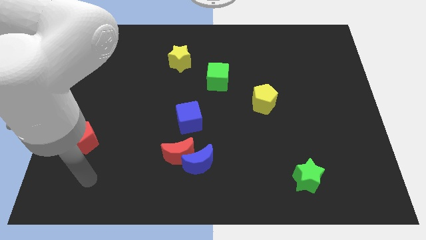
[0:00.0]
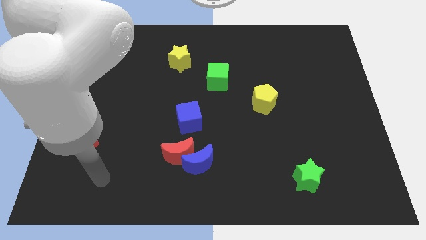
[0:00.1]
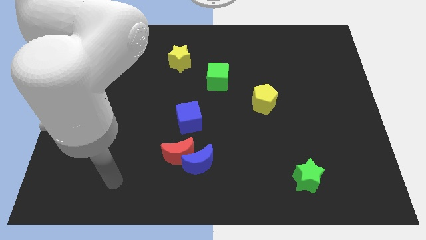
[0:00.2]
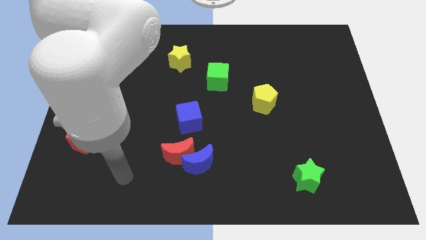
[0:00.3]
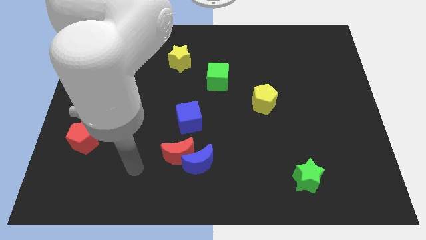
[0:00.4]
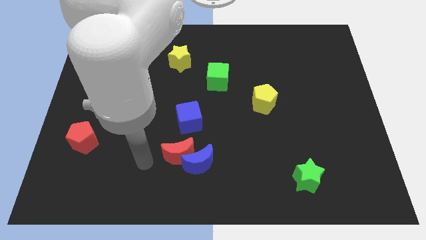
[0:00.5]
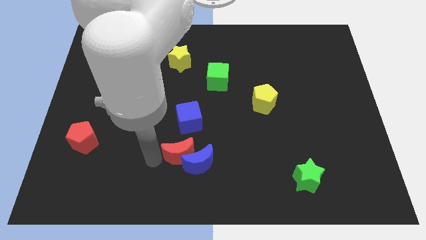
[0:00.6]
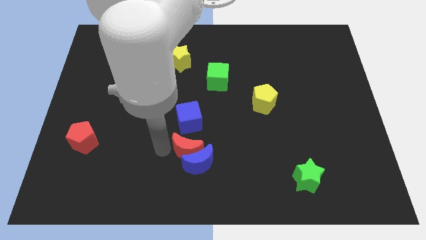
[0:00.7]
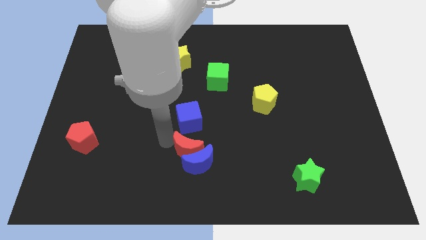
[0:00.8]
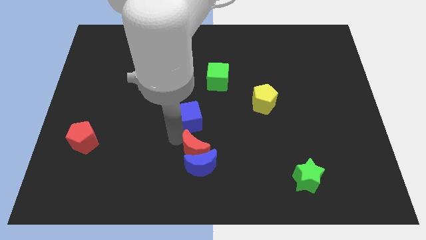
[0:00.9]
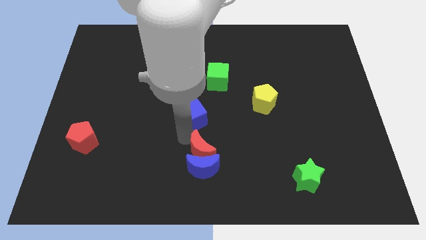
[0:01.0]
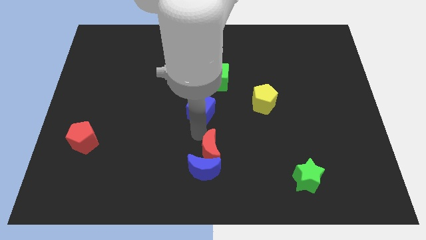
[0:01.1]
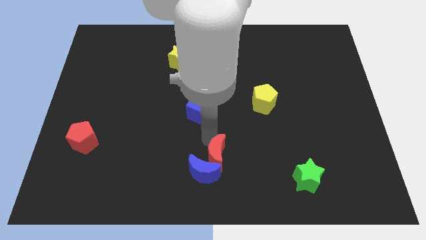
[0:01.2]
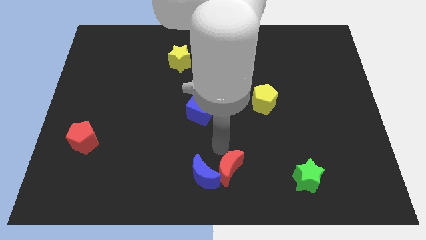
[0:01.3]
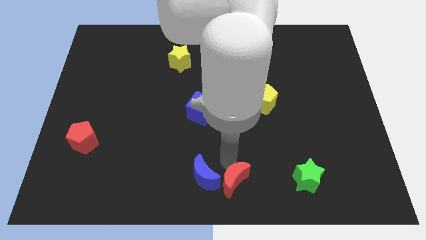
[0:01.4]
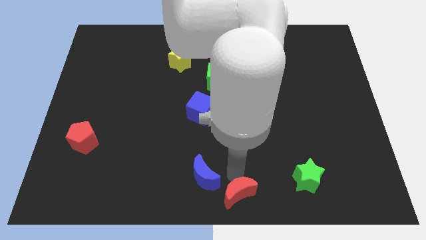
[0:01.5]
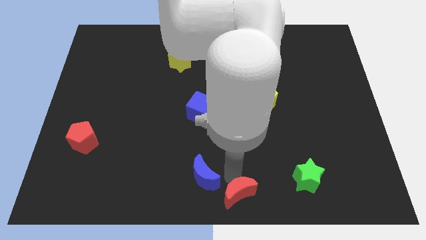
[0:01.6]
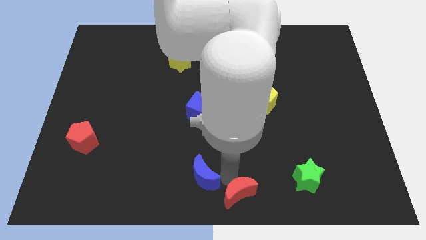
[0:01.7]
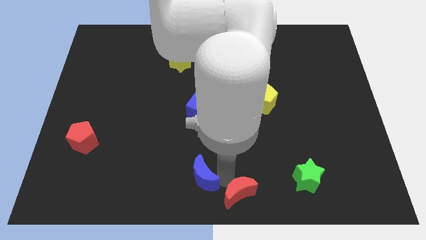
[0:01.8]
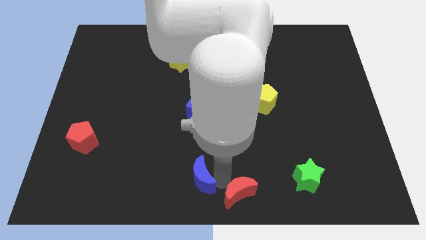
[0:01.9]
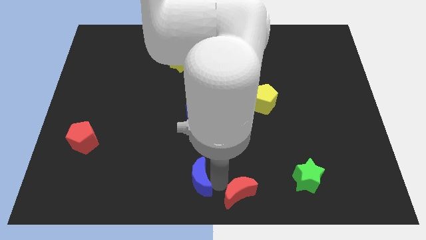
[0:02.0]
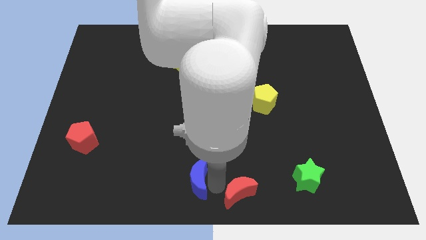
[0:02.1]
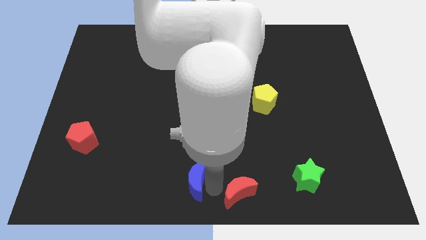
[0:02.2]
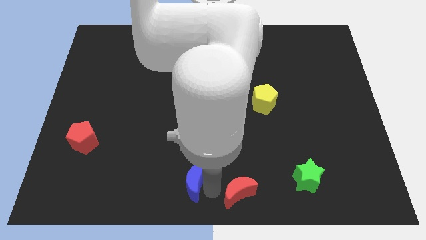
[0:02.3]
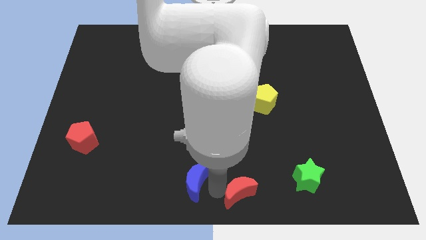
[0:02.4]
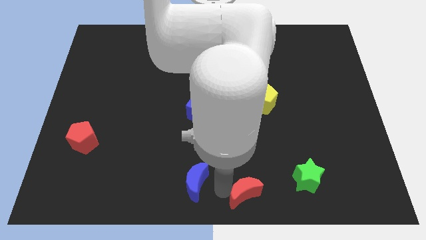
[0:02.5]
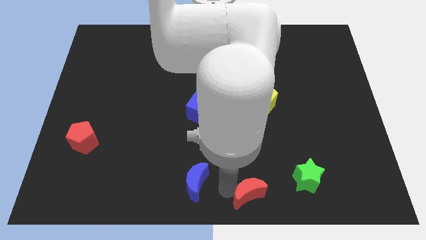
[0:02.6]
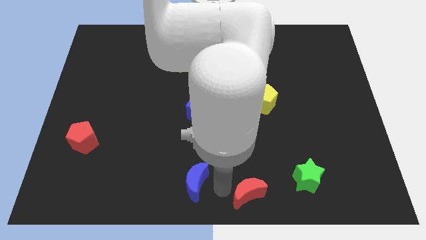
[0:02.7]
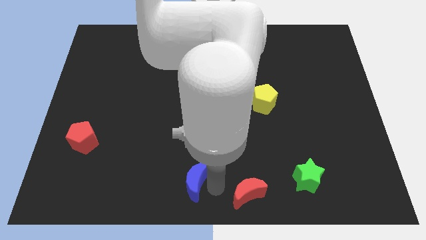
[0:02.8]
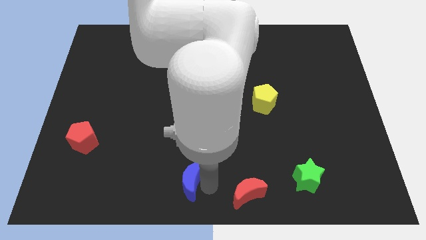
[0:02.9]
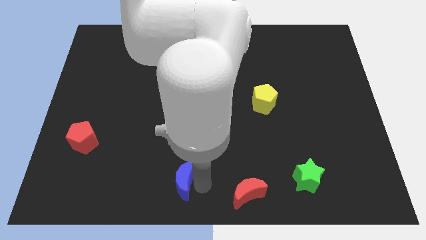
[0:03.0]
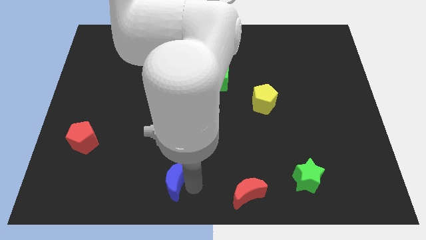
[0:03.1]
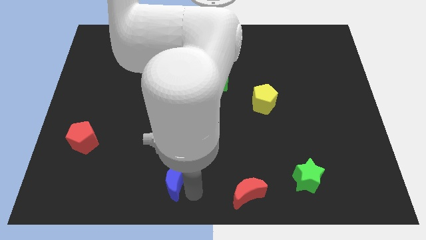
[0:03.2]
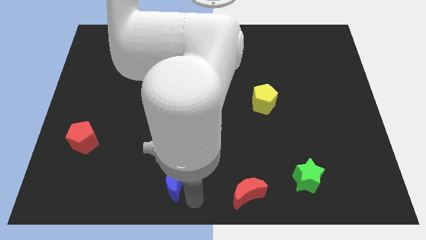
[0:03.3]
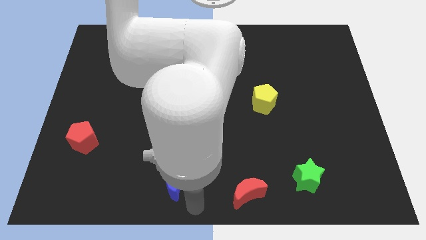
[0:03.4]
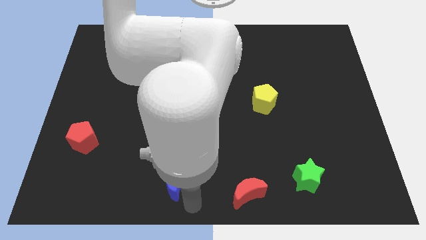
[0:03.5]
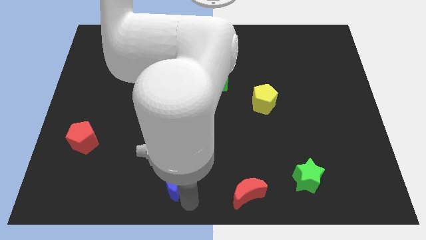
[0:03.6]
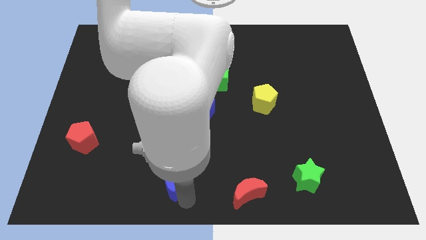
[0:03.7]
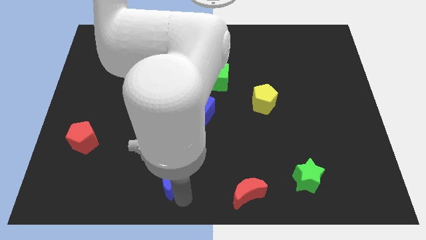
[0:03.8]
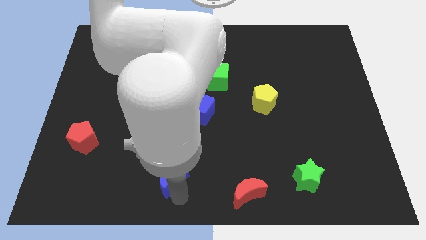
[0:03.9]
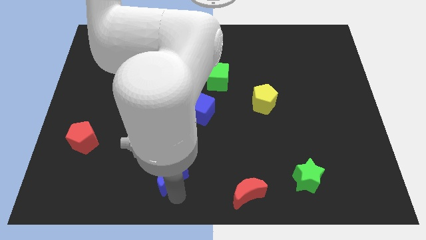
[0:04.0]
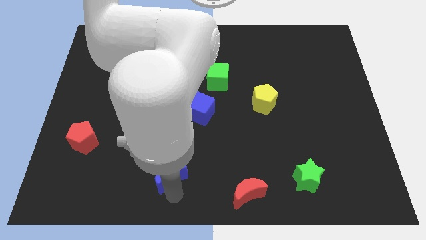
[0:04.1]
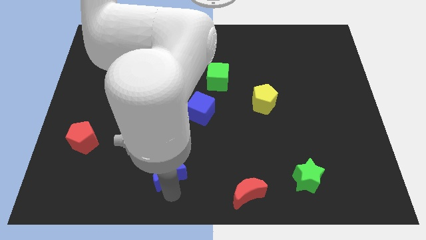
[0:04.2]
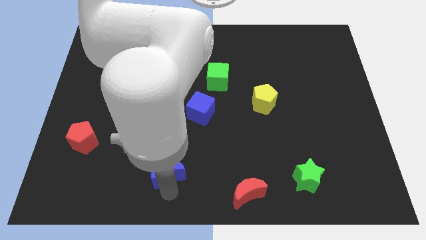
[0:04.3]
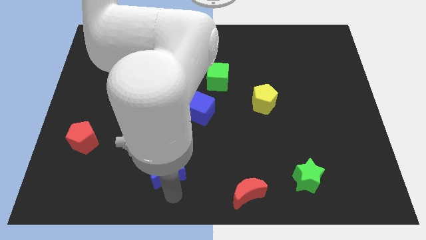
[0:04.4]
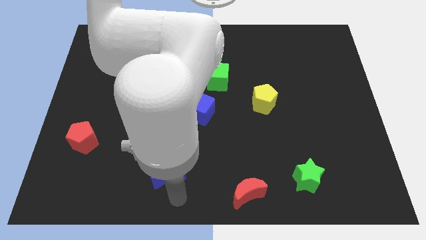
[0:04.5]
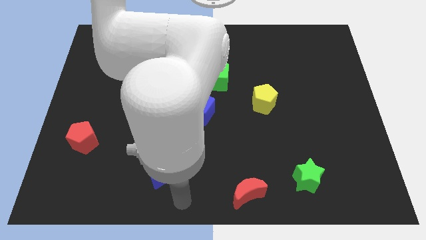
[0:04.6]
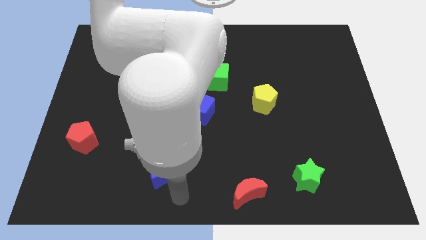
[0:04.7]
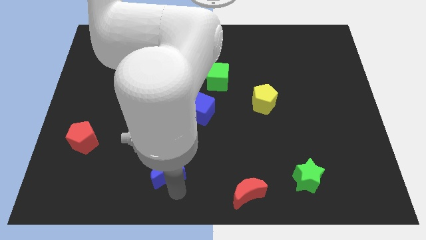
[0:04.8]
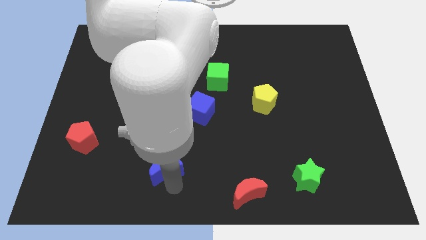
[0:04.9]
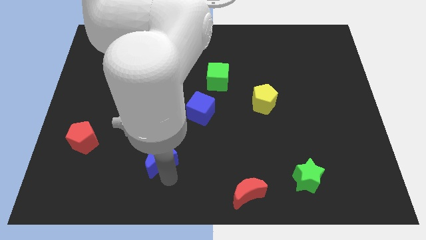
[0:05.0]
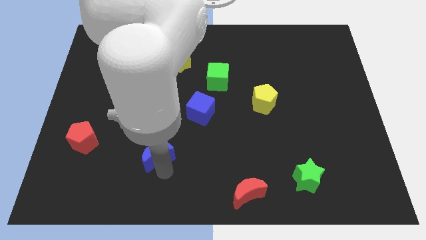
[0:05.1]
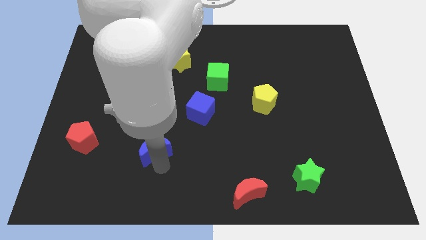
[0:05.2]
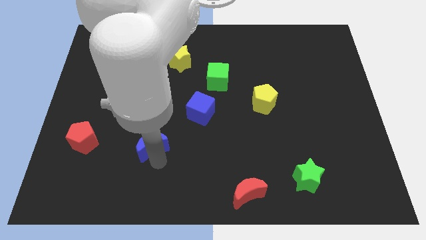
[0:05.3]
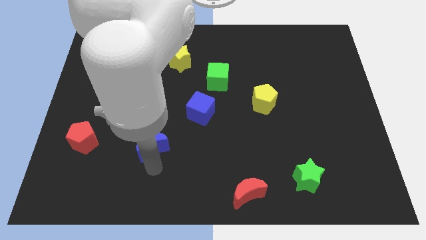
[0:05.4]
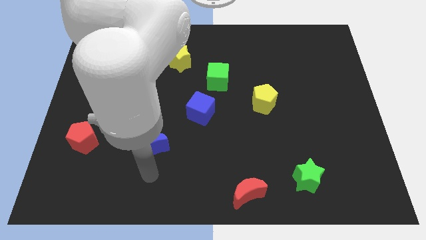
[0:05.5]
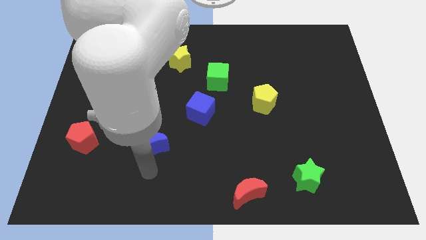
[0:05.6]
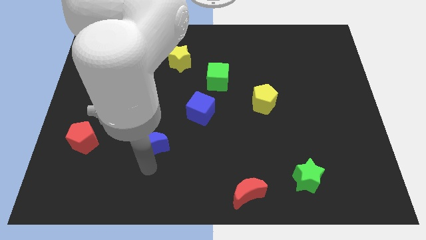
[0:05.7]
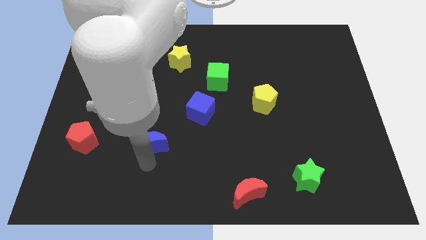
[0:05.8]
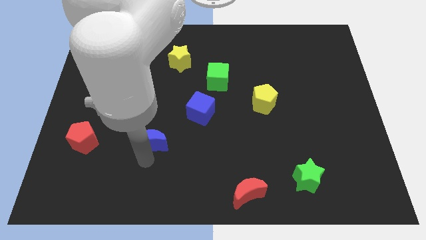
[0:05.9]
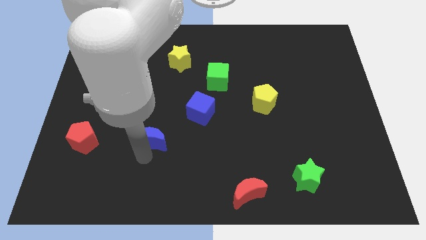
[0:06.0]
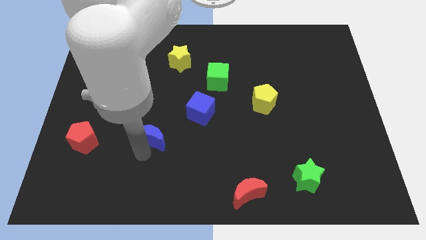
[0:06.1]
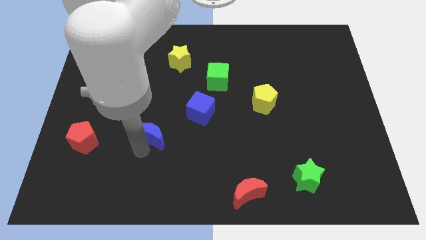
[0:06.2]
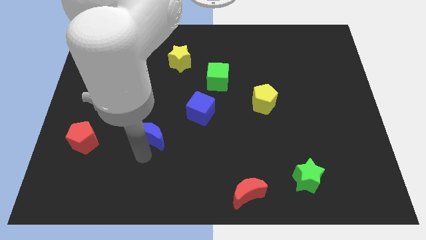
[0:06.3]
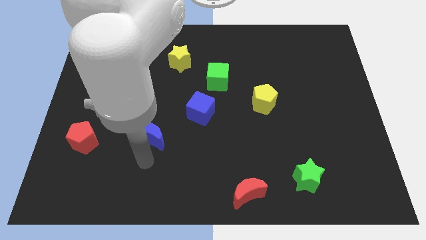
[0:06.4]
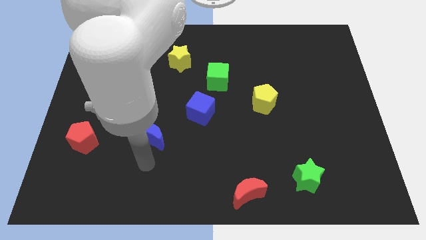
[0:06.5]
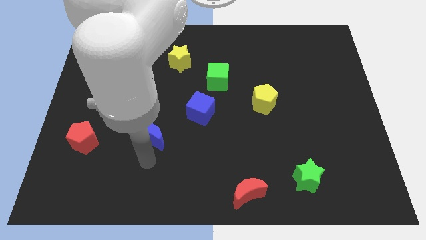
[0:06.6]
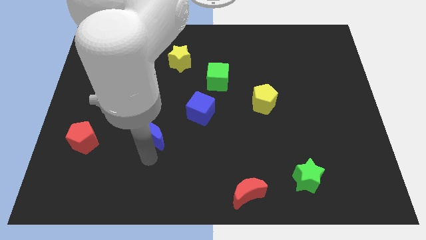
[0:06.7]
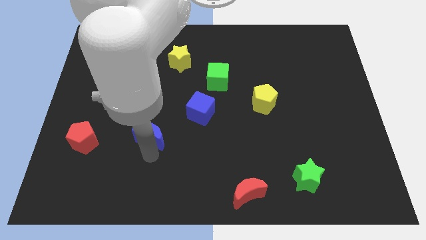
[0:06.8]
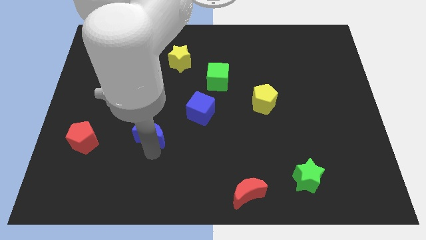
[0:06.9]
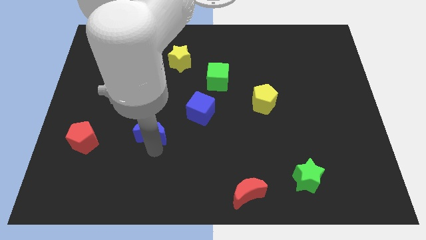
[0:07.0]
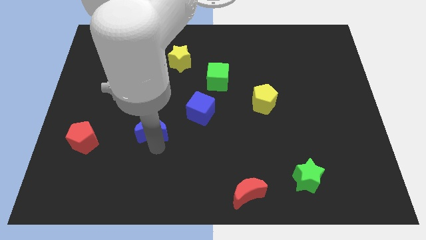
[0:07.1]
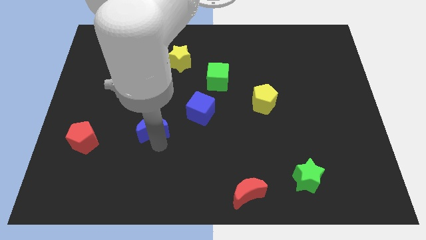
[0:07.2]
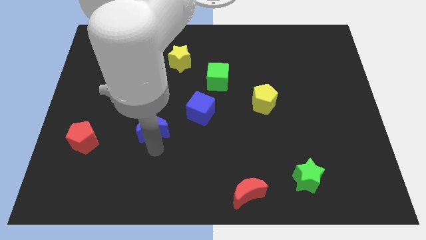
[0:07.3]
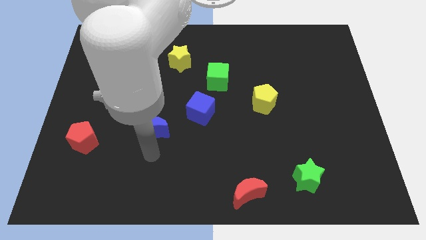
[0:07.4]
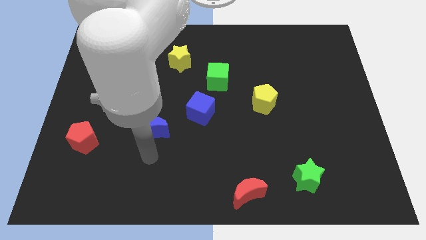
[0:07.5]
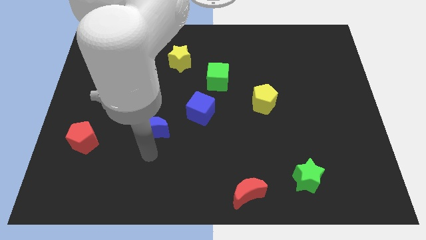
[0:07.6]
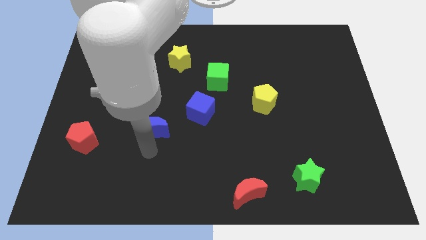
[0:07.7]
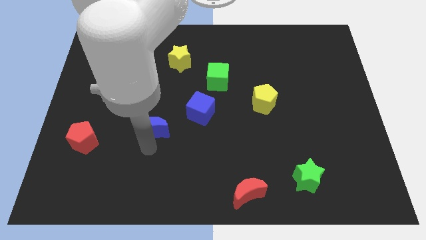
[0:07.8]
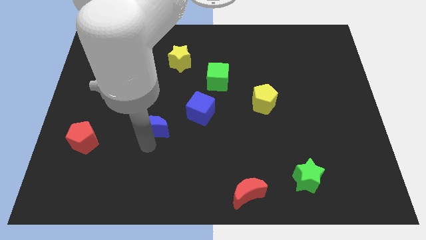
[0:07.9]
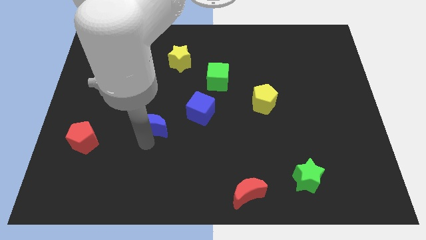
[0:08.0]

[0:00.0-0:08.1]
slide the blue moon to the left of the blue cube
